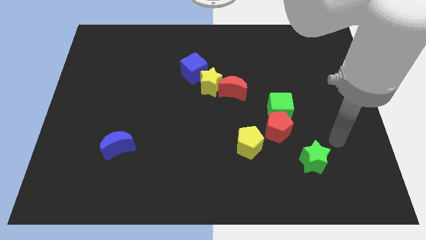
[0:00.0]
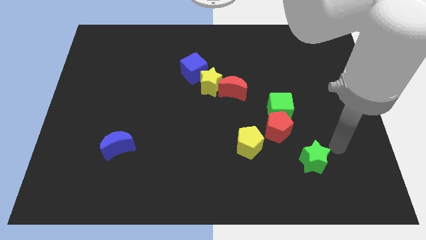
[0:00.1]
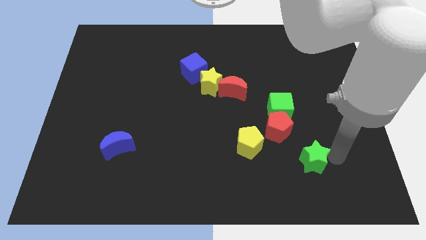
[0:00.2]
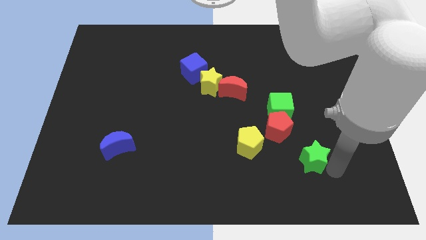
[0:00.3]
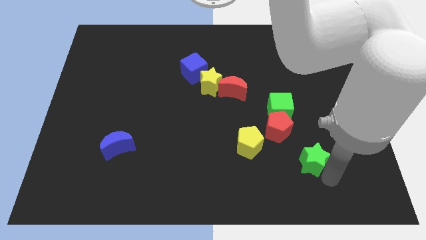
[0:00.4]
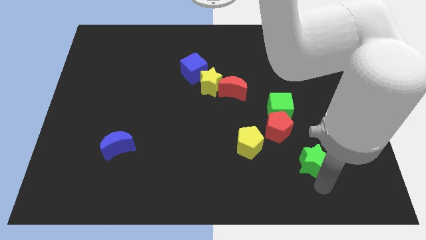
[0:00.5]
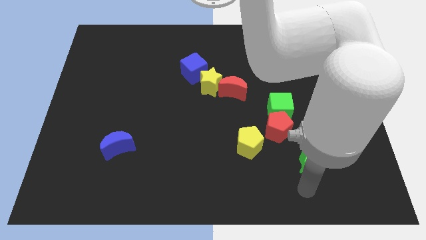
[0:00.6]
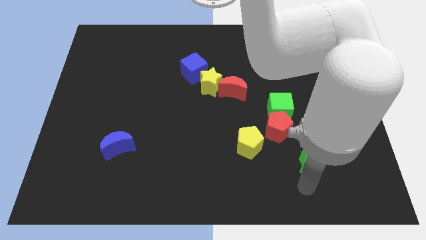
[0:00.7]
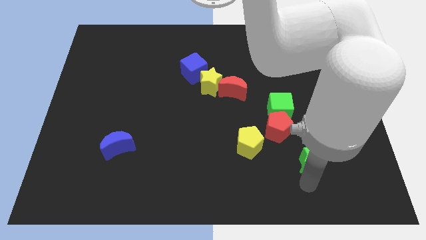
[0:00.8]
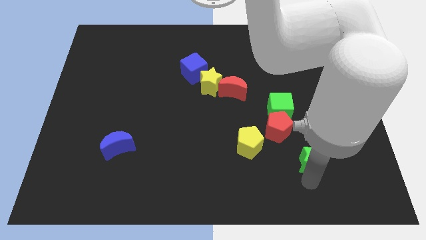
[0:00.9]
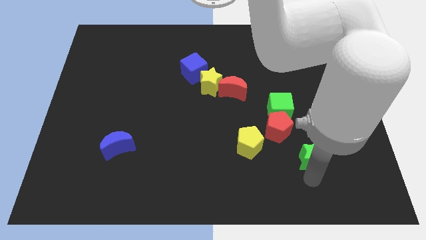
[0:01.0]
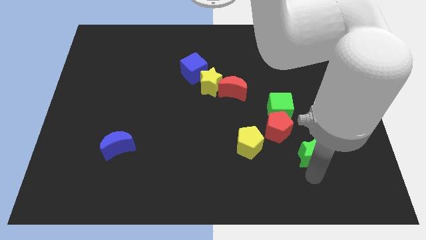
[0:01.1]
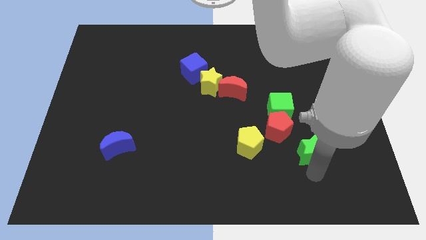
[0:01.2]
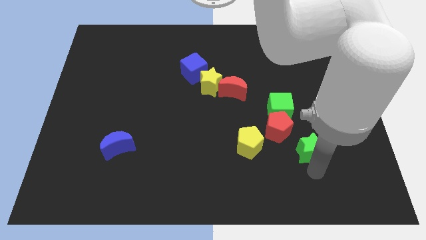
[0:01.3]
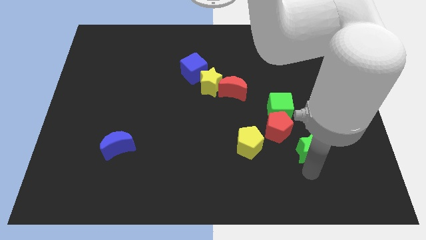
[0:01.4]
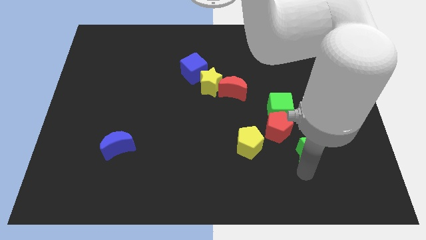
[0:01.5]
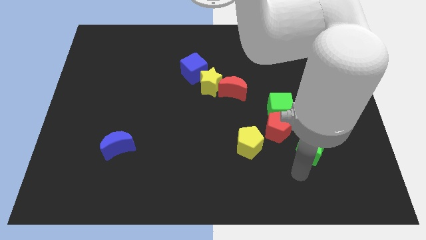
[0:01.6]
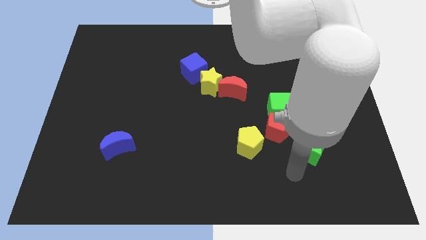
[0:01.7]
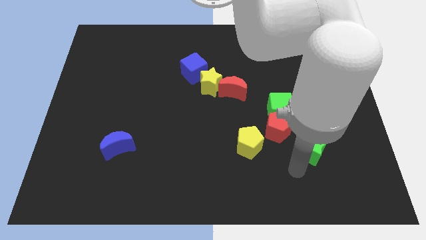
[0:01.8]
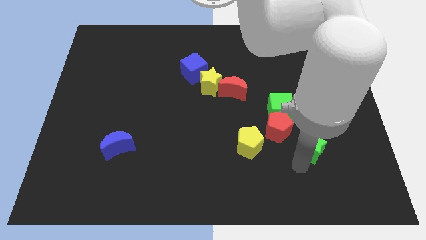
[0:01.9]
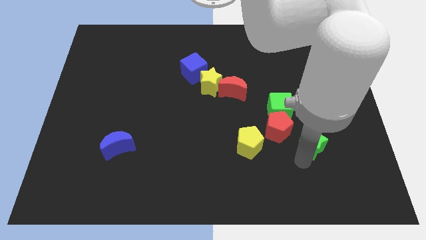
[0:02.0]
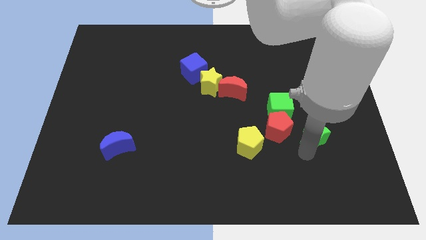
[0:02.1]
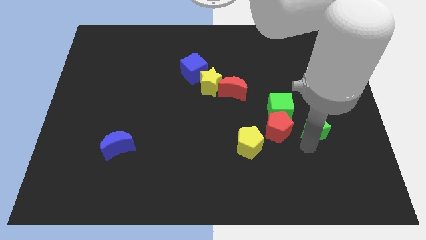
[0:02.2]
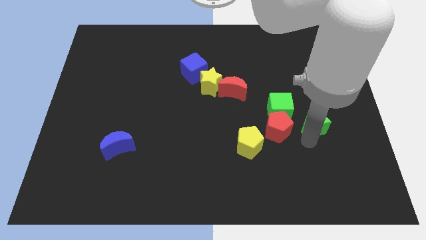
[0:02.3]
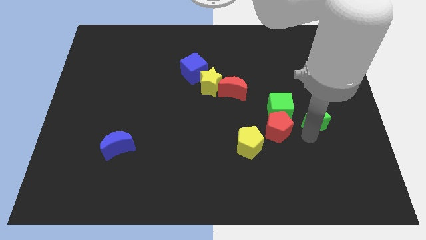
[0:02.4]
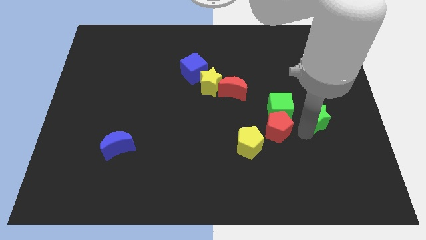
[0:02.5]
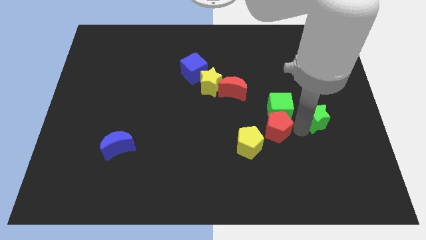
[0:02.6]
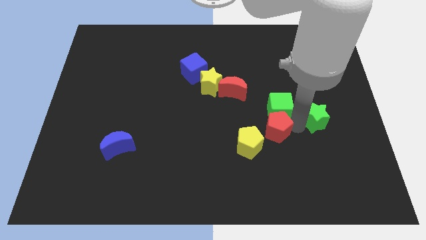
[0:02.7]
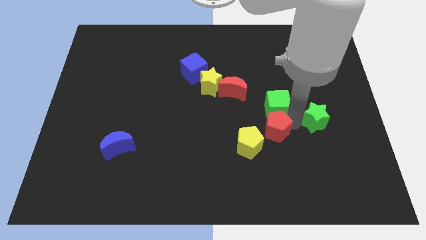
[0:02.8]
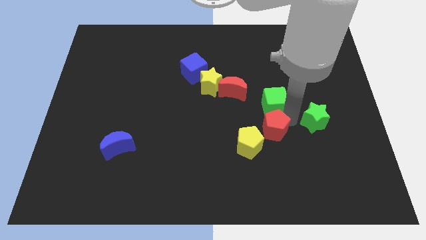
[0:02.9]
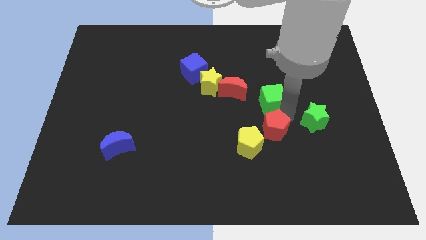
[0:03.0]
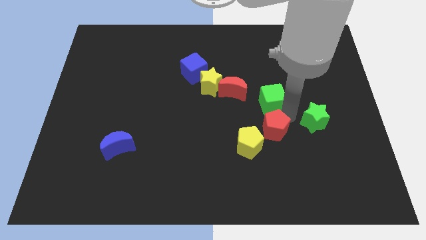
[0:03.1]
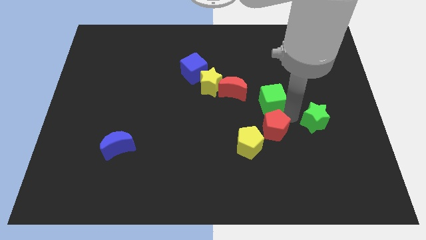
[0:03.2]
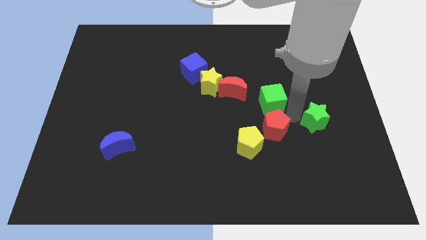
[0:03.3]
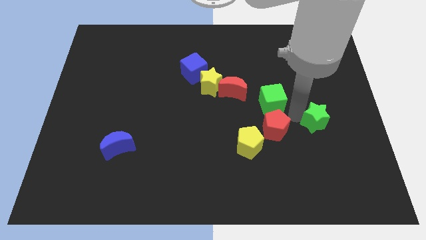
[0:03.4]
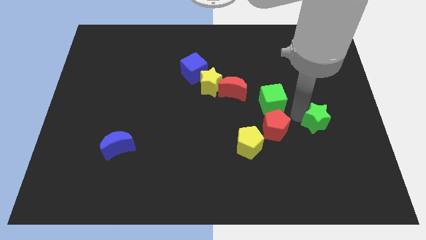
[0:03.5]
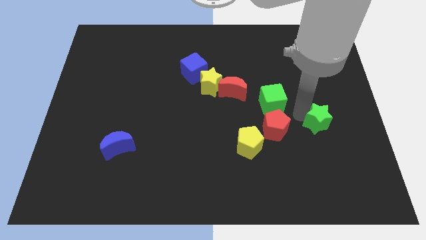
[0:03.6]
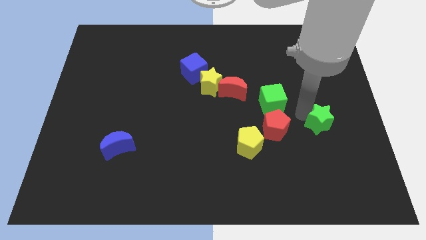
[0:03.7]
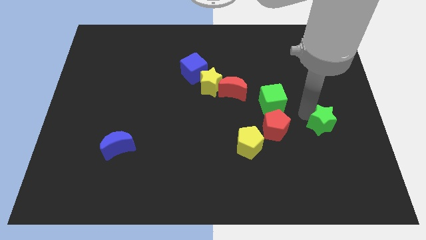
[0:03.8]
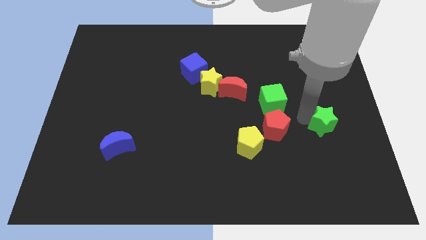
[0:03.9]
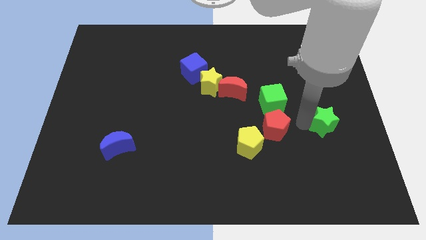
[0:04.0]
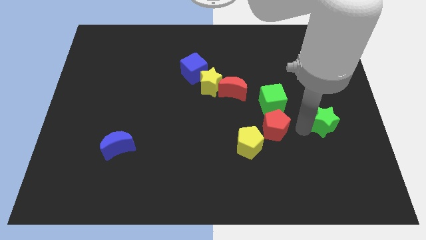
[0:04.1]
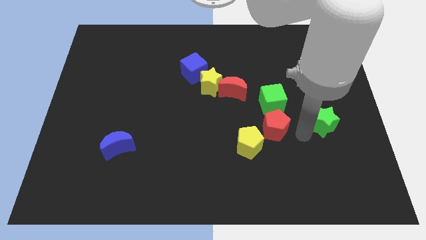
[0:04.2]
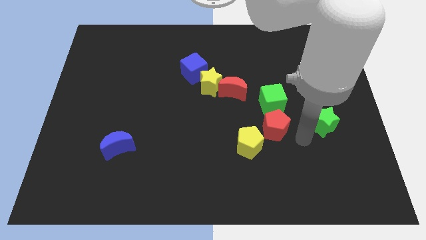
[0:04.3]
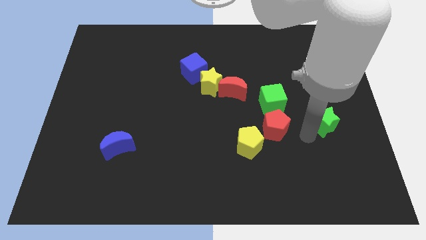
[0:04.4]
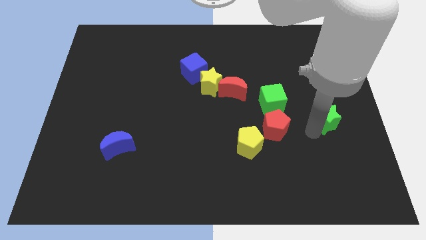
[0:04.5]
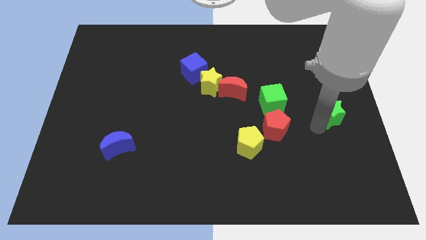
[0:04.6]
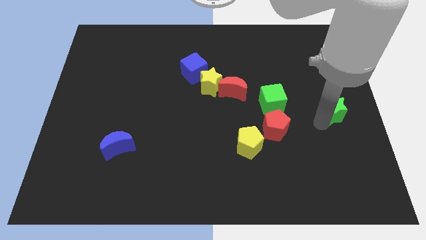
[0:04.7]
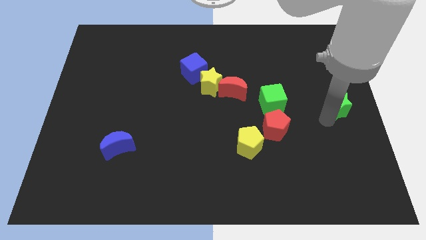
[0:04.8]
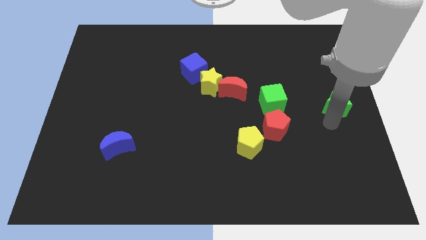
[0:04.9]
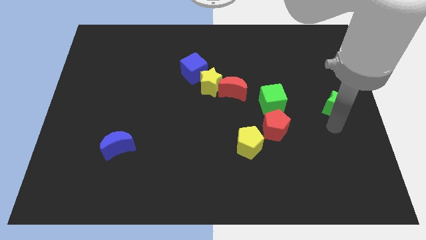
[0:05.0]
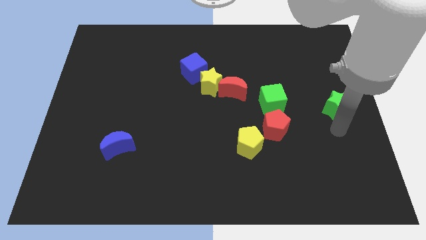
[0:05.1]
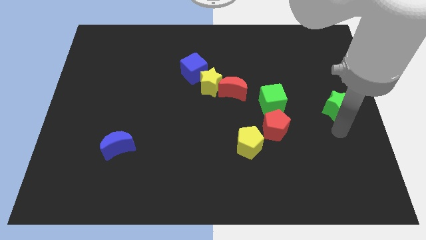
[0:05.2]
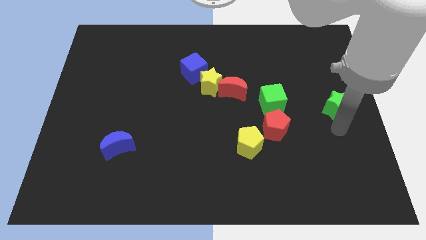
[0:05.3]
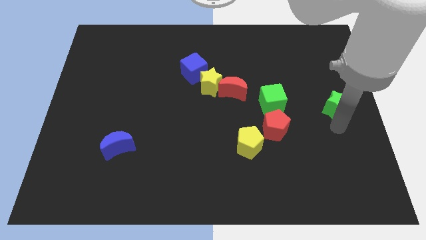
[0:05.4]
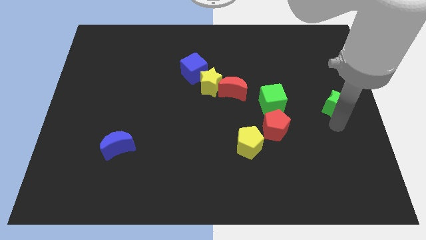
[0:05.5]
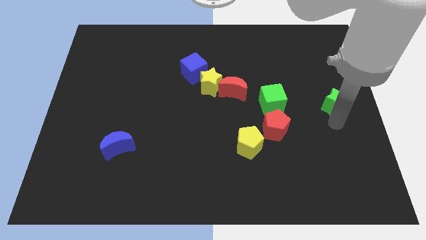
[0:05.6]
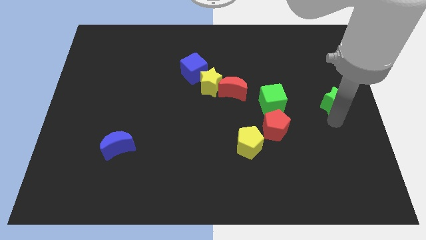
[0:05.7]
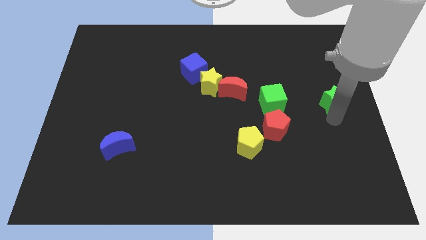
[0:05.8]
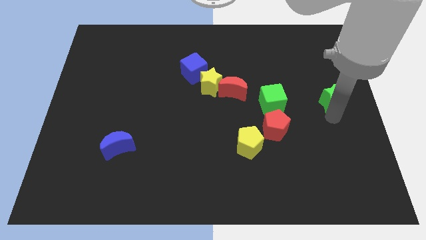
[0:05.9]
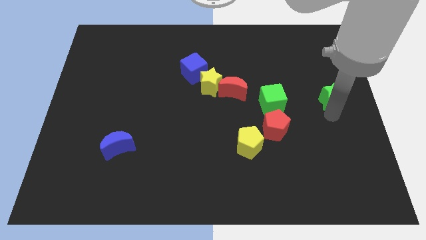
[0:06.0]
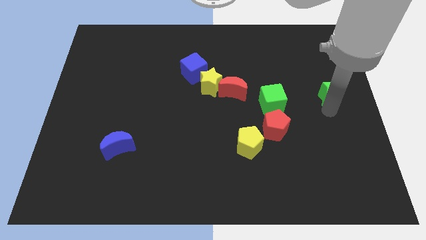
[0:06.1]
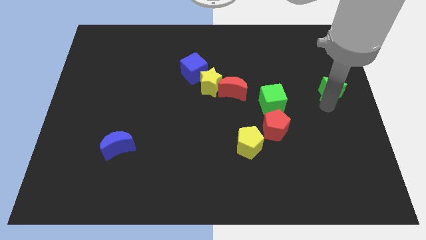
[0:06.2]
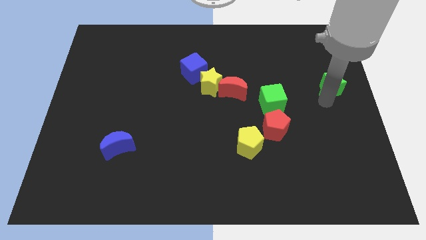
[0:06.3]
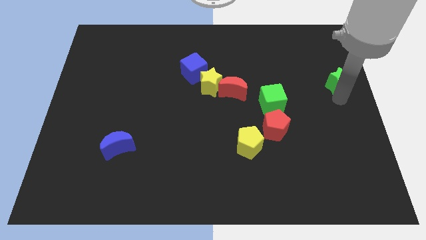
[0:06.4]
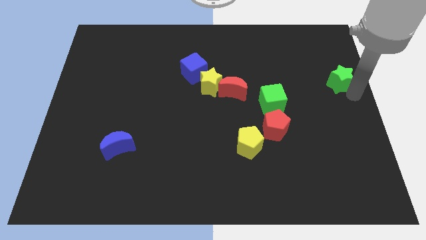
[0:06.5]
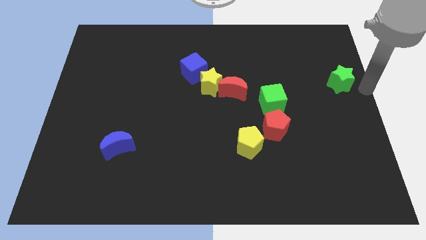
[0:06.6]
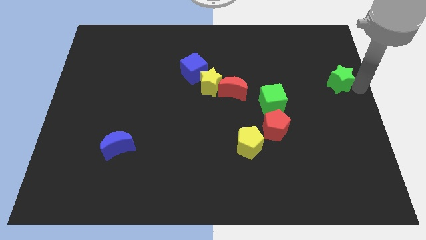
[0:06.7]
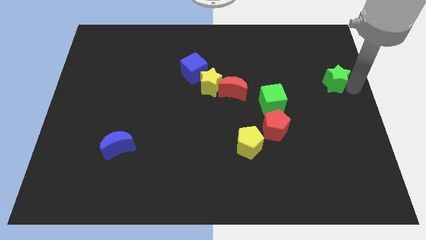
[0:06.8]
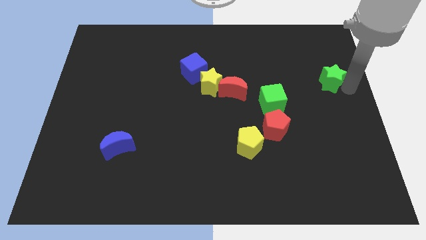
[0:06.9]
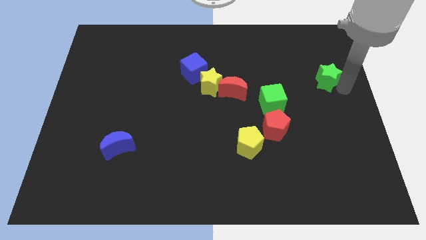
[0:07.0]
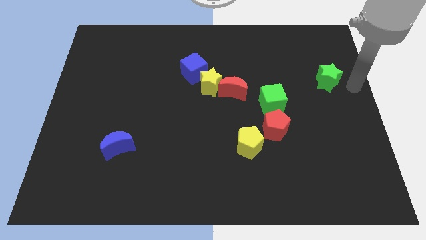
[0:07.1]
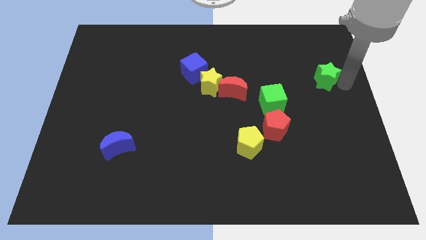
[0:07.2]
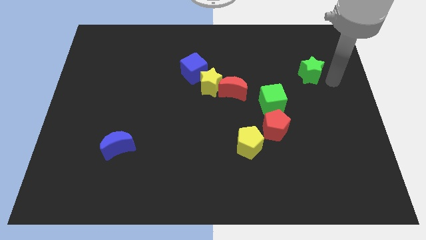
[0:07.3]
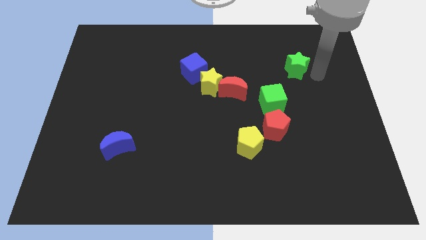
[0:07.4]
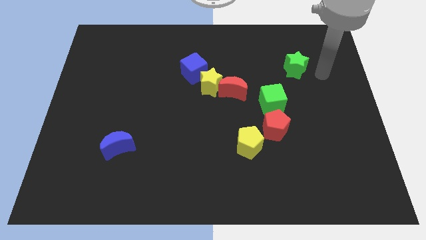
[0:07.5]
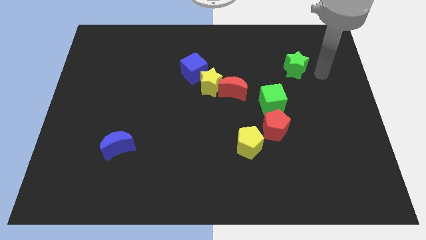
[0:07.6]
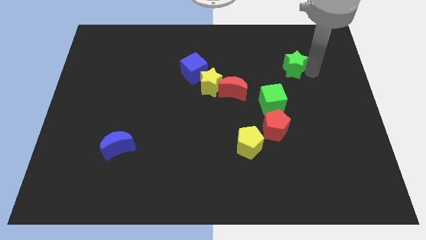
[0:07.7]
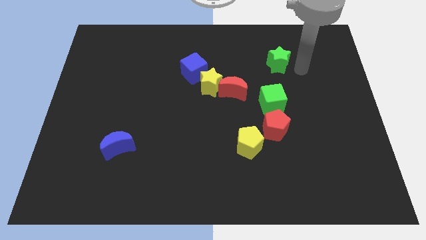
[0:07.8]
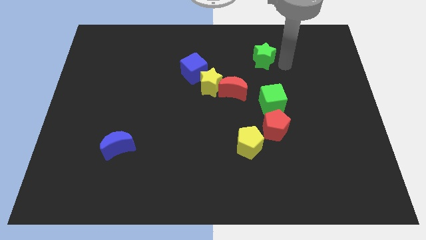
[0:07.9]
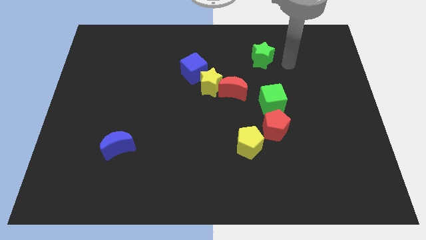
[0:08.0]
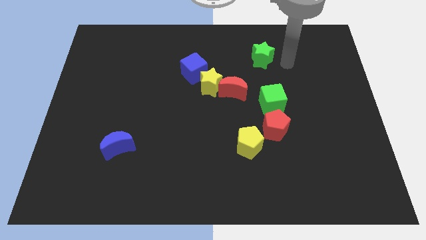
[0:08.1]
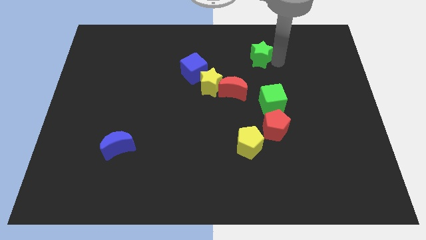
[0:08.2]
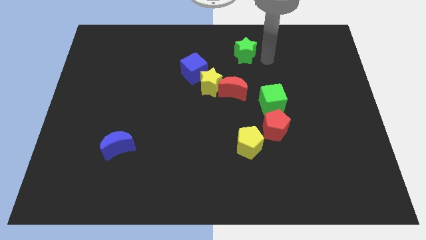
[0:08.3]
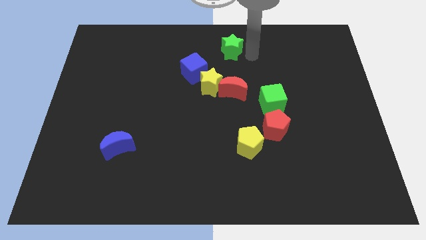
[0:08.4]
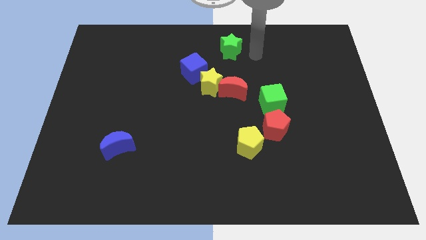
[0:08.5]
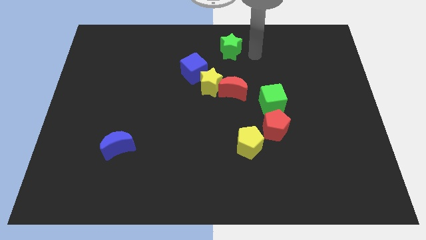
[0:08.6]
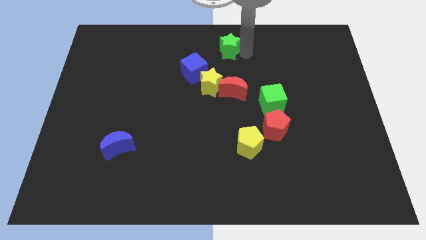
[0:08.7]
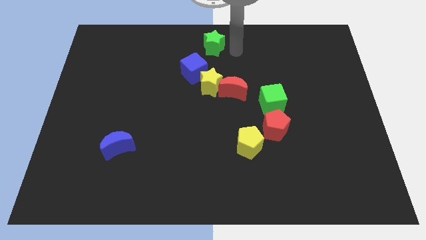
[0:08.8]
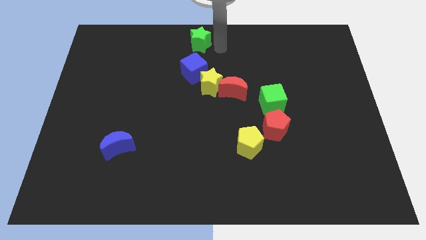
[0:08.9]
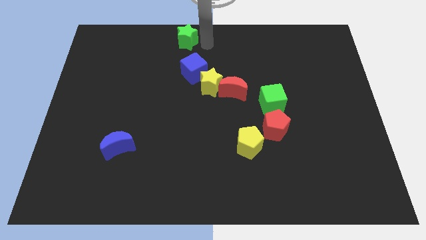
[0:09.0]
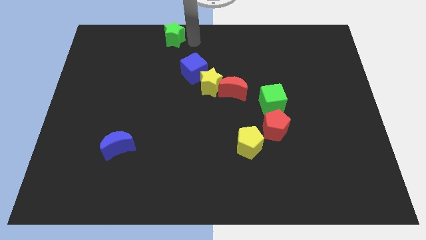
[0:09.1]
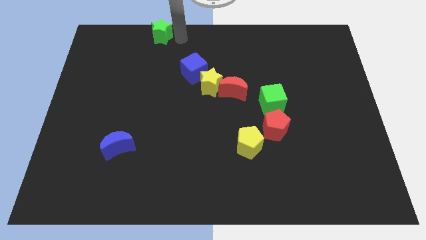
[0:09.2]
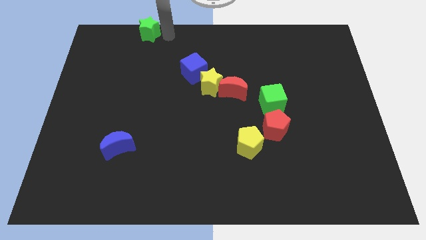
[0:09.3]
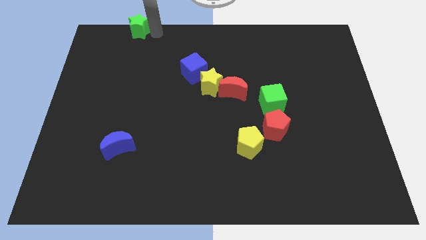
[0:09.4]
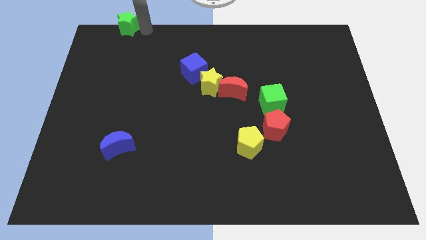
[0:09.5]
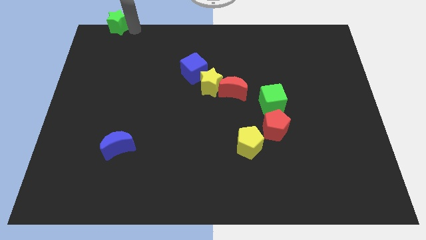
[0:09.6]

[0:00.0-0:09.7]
put the green star to the top left
